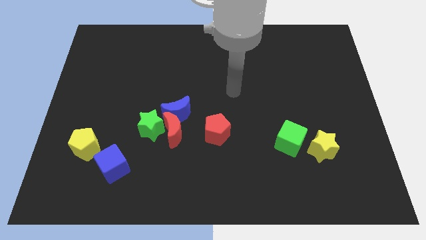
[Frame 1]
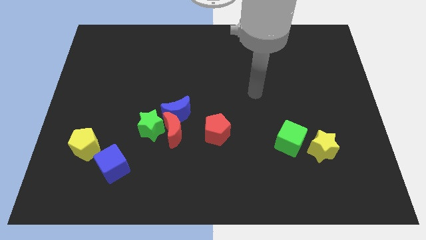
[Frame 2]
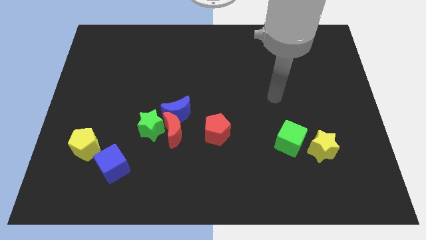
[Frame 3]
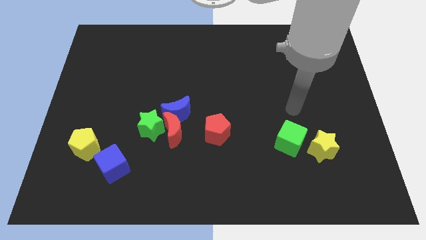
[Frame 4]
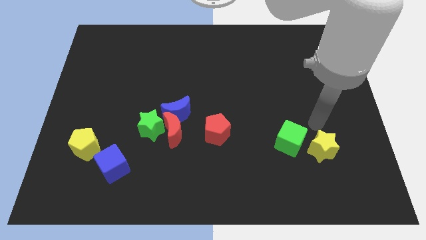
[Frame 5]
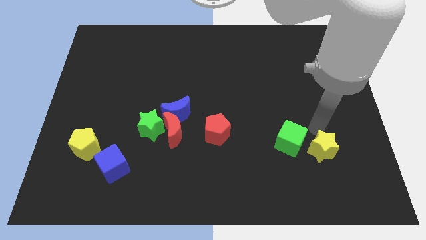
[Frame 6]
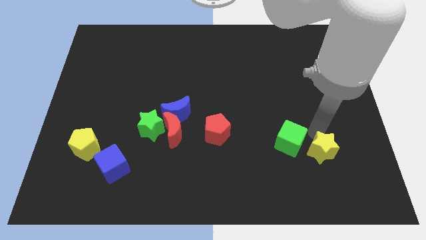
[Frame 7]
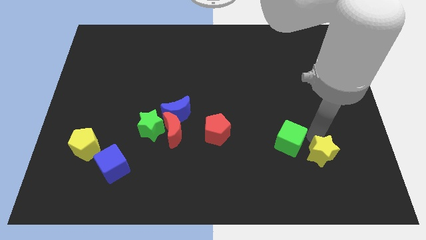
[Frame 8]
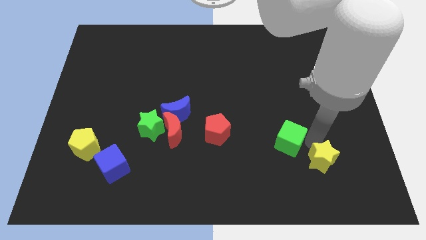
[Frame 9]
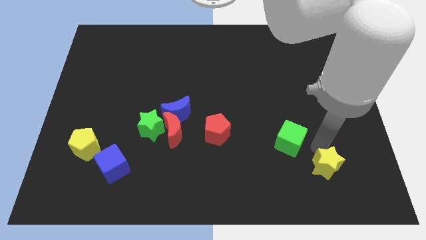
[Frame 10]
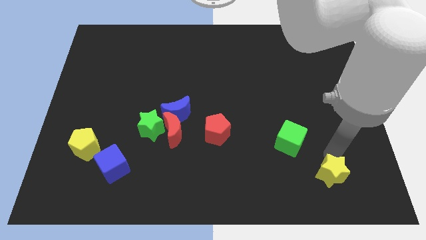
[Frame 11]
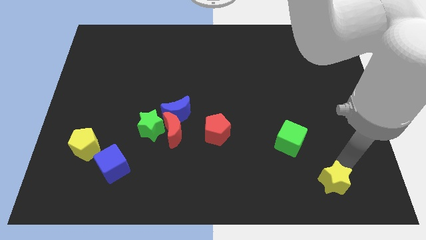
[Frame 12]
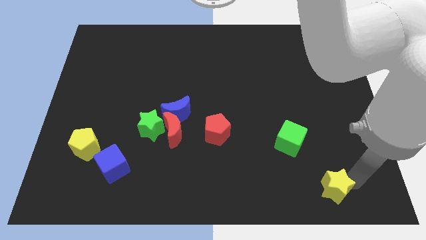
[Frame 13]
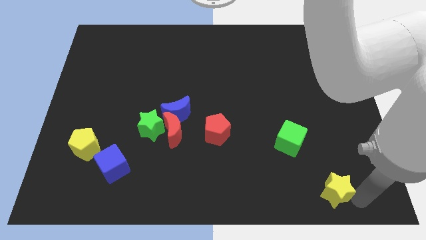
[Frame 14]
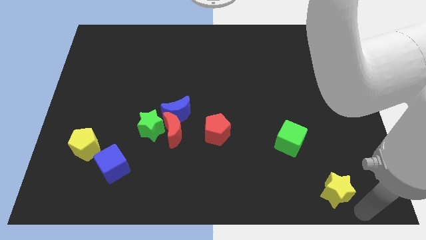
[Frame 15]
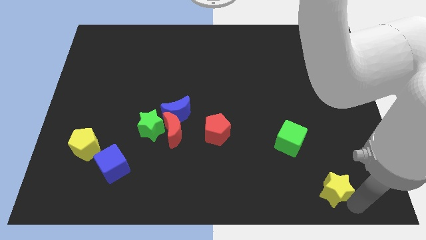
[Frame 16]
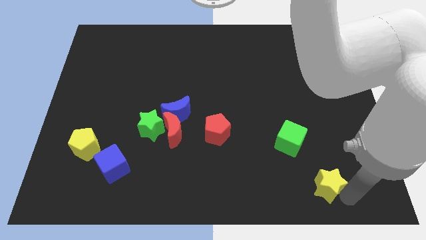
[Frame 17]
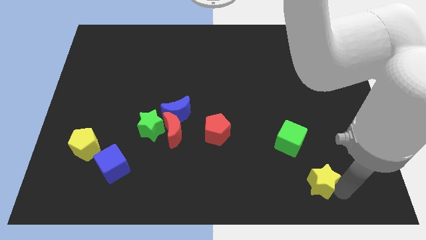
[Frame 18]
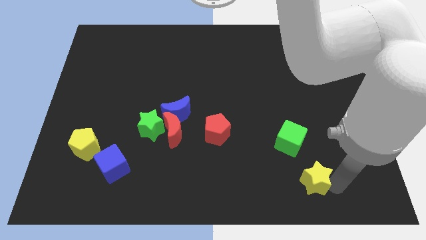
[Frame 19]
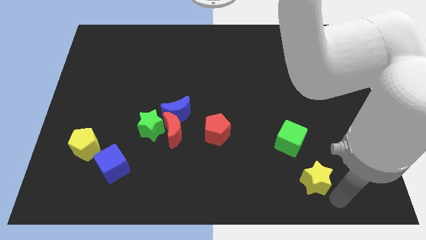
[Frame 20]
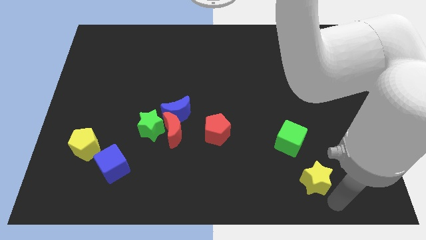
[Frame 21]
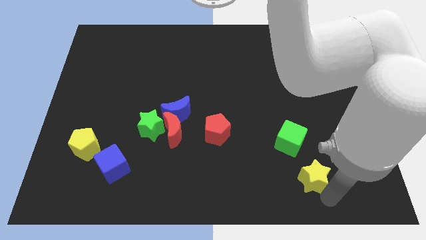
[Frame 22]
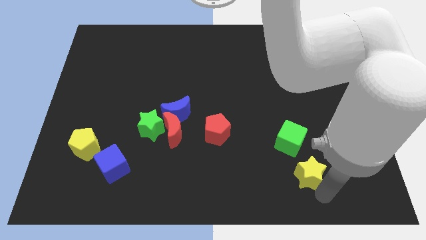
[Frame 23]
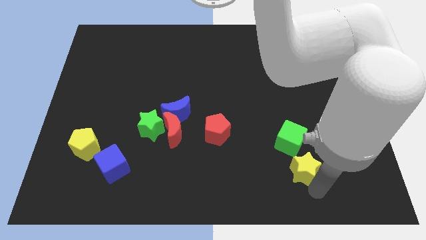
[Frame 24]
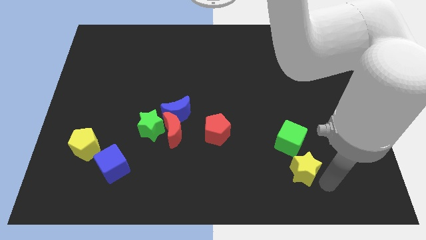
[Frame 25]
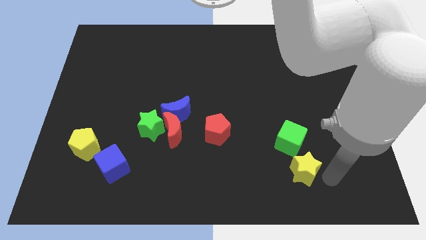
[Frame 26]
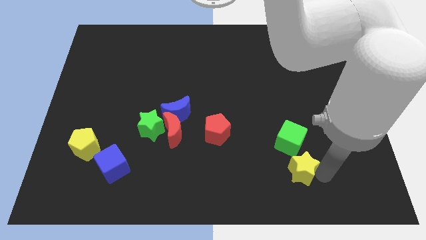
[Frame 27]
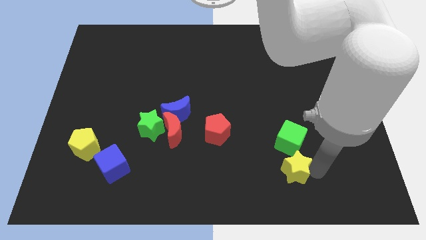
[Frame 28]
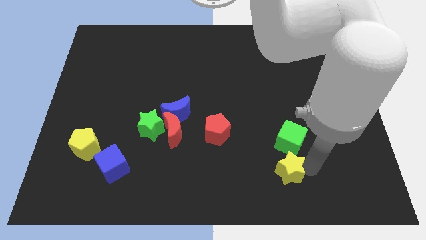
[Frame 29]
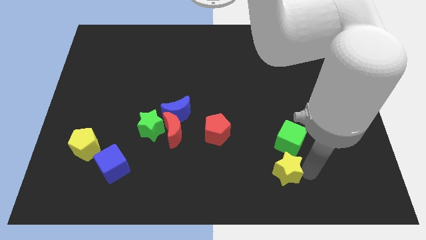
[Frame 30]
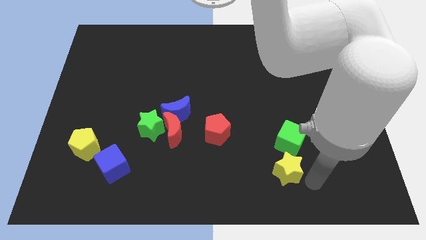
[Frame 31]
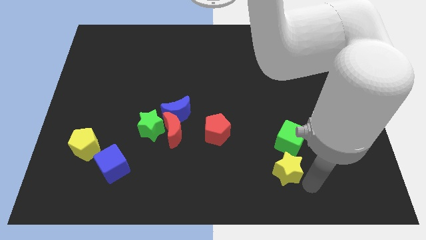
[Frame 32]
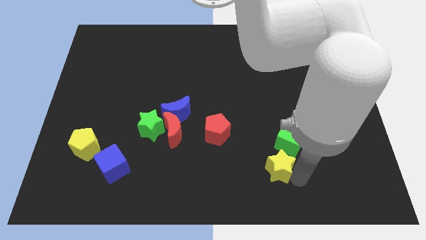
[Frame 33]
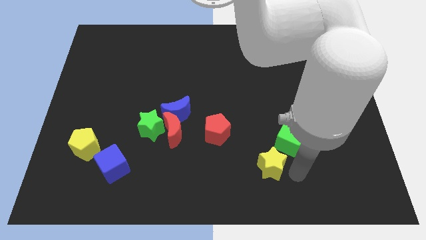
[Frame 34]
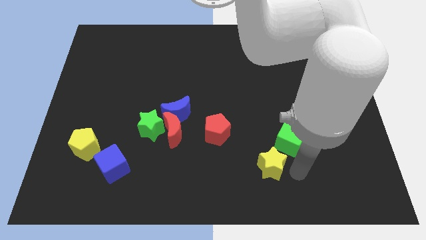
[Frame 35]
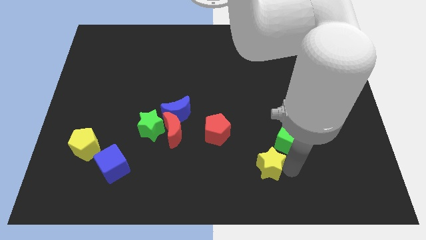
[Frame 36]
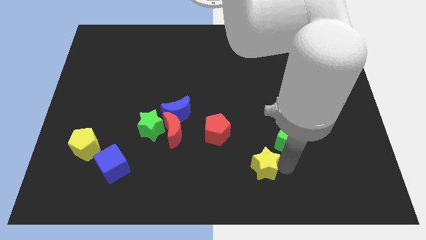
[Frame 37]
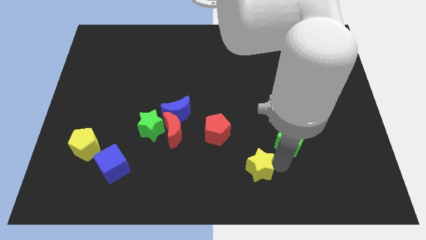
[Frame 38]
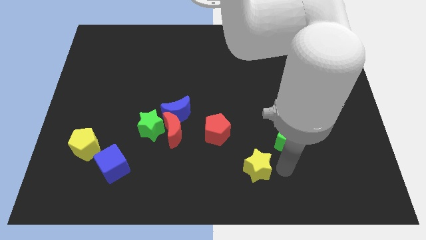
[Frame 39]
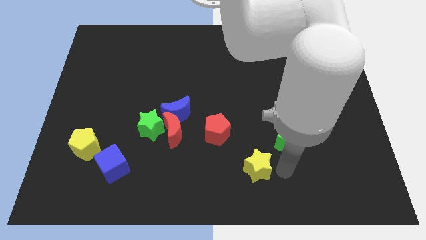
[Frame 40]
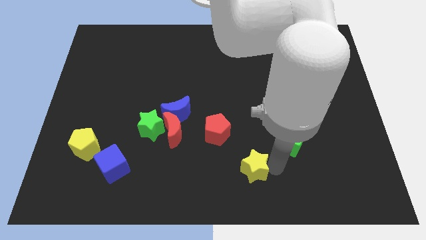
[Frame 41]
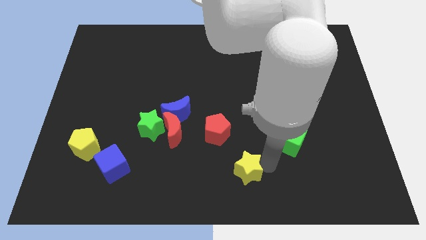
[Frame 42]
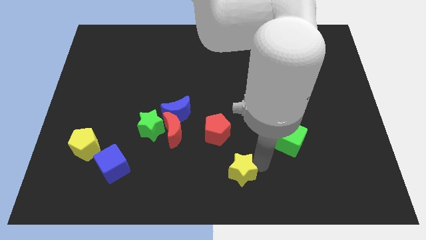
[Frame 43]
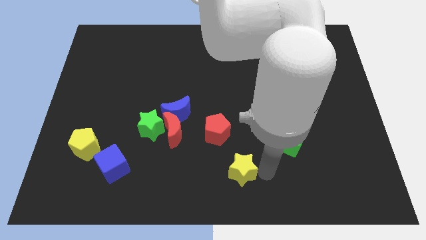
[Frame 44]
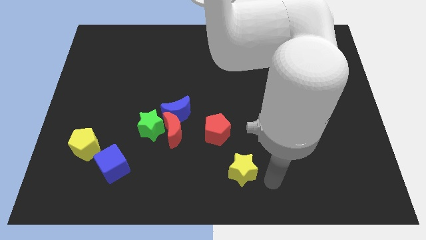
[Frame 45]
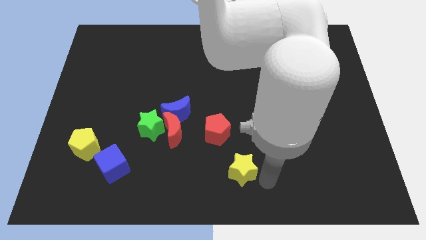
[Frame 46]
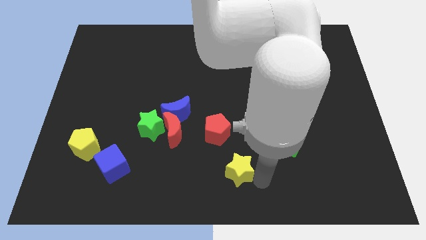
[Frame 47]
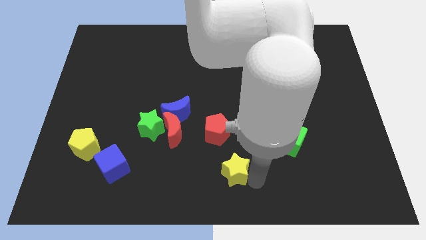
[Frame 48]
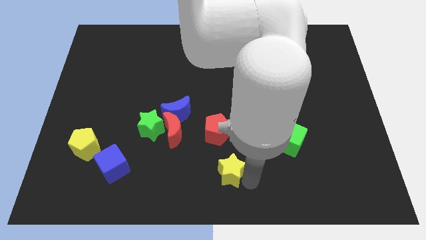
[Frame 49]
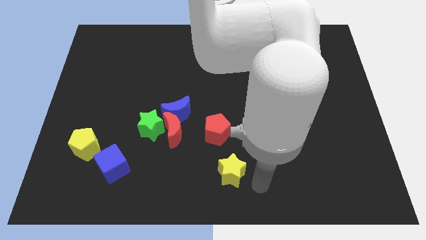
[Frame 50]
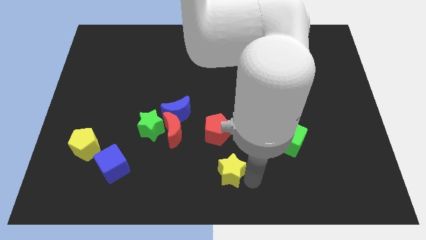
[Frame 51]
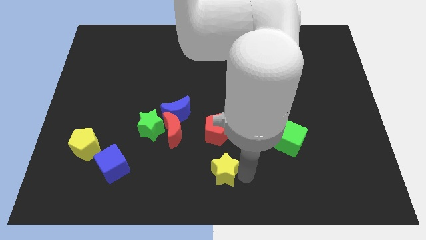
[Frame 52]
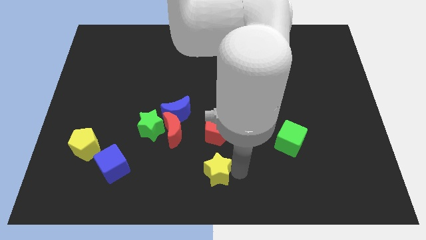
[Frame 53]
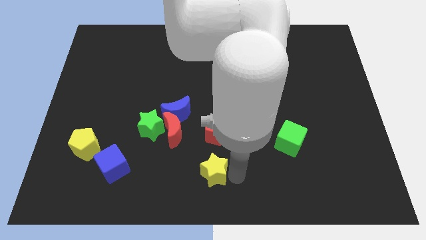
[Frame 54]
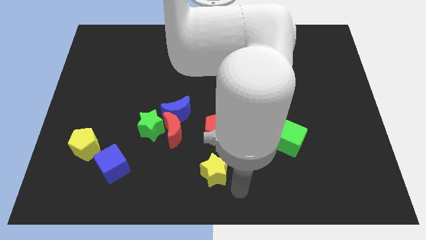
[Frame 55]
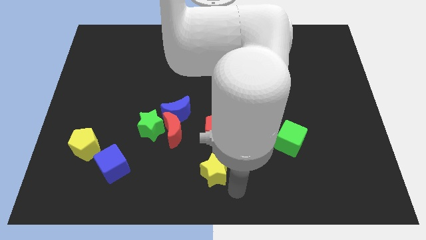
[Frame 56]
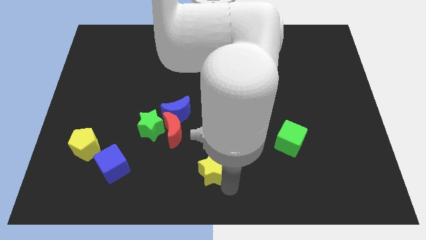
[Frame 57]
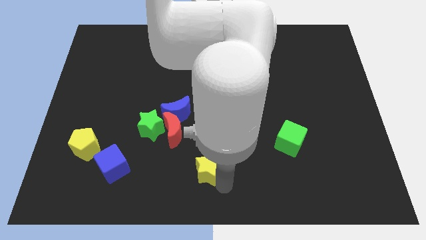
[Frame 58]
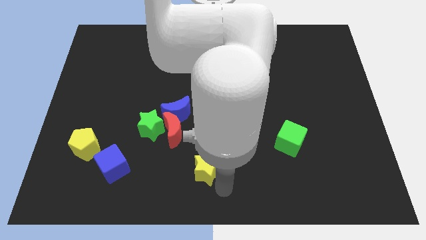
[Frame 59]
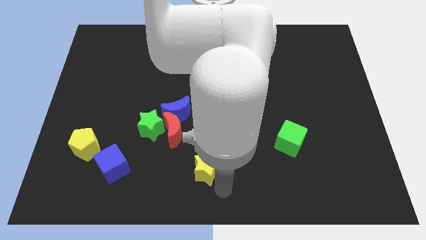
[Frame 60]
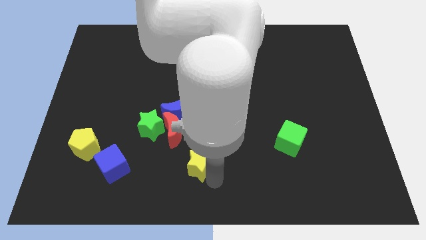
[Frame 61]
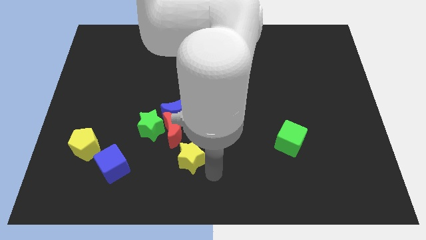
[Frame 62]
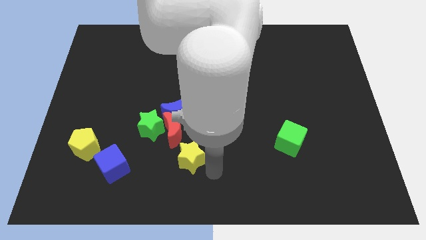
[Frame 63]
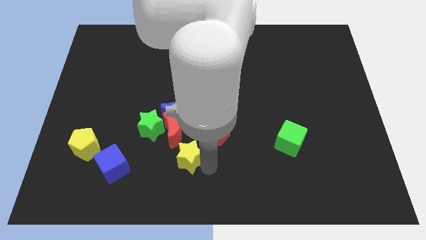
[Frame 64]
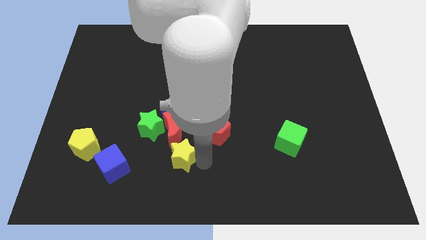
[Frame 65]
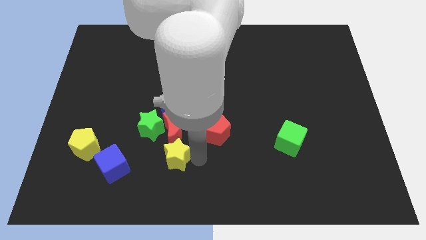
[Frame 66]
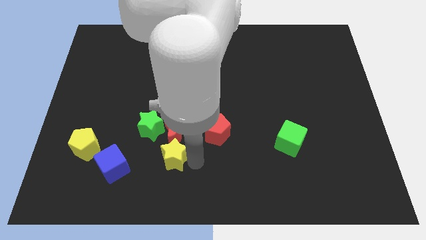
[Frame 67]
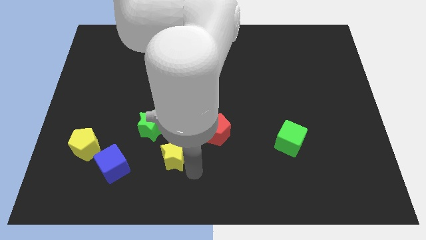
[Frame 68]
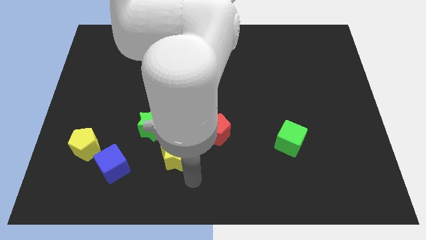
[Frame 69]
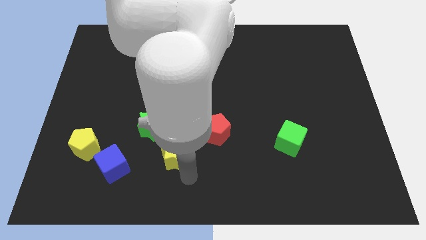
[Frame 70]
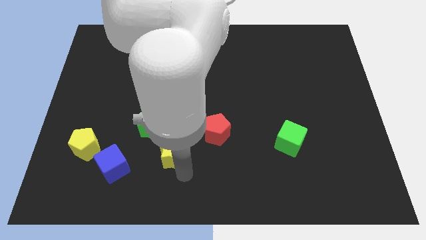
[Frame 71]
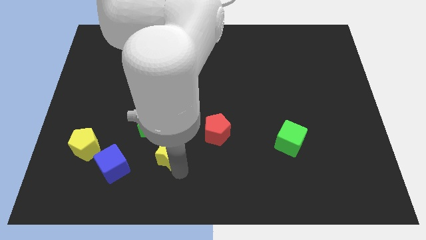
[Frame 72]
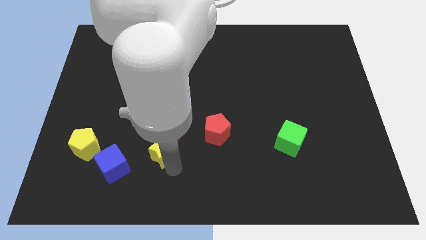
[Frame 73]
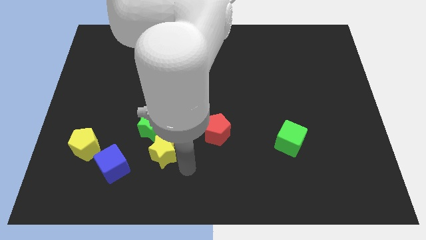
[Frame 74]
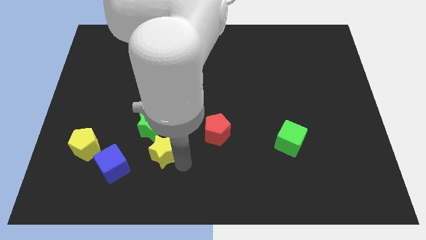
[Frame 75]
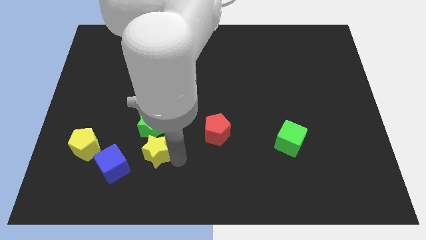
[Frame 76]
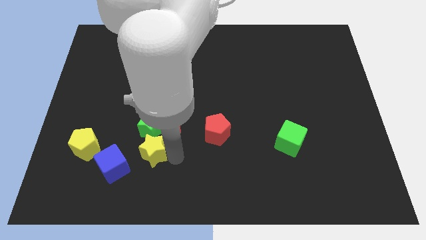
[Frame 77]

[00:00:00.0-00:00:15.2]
push the yellow star towards the green star
